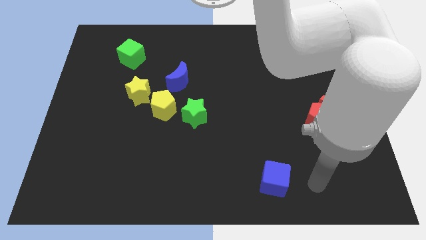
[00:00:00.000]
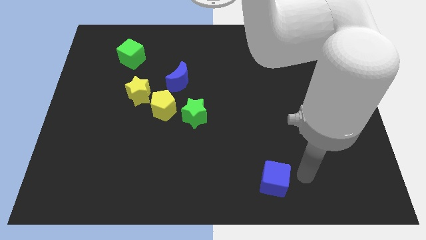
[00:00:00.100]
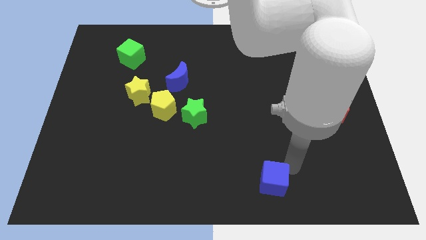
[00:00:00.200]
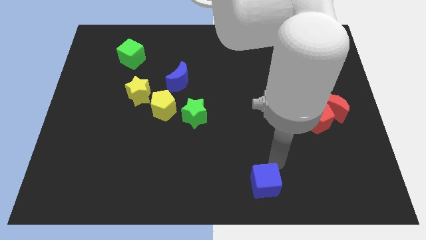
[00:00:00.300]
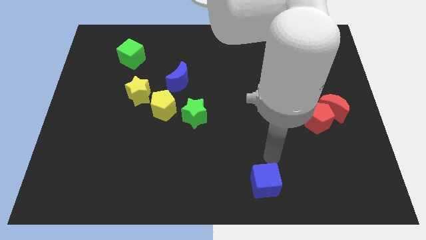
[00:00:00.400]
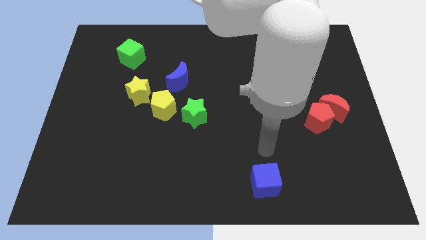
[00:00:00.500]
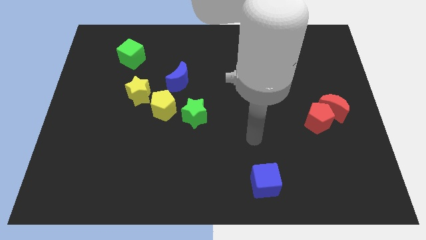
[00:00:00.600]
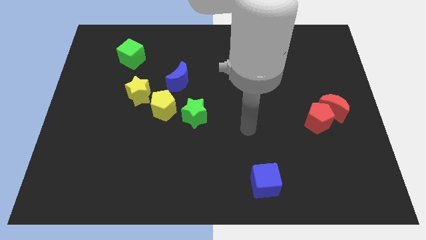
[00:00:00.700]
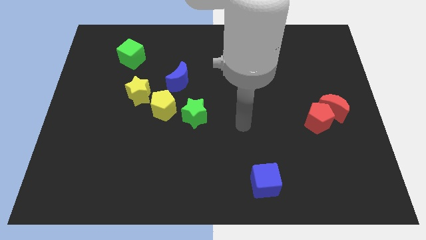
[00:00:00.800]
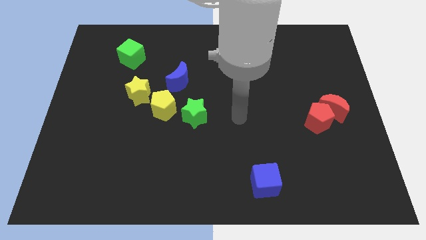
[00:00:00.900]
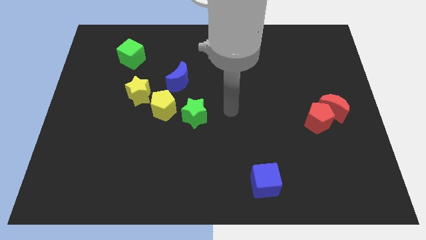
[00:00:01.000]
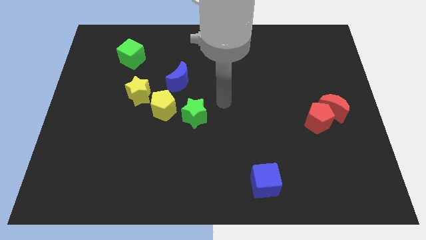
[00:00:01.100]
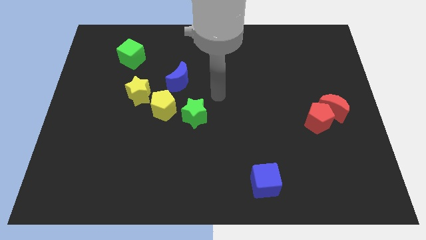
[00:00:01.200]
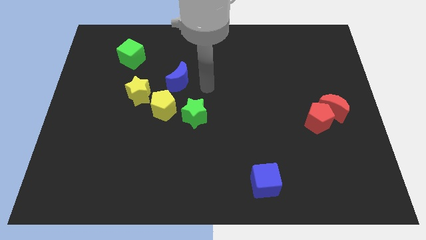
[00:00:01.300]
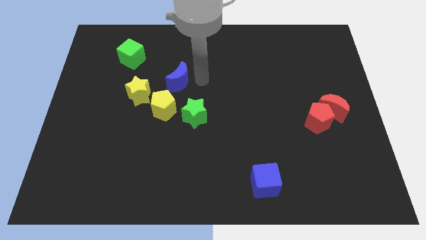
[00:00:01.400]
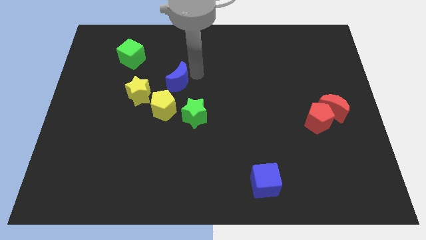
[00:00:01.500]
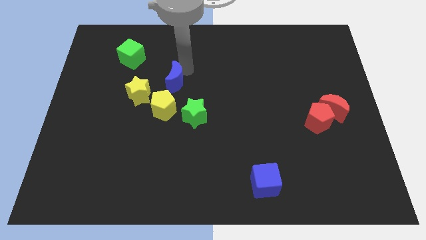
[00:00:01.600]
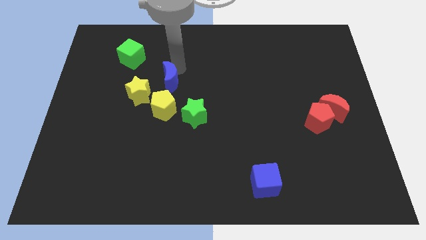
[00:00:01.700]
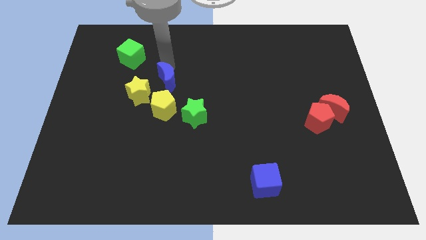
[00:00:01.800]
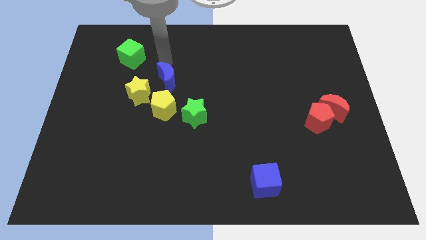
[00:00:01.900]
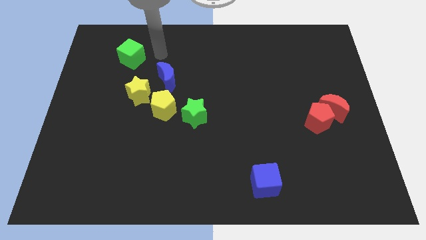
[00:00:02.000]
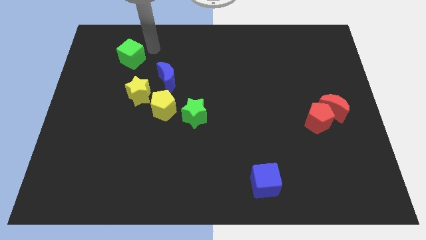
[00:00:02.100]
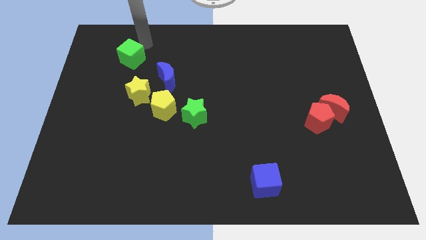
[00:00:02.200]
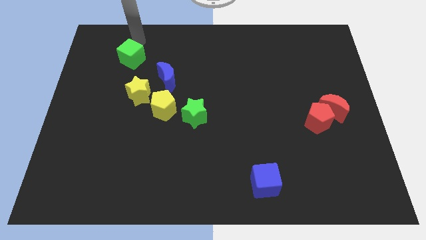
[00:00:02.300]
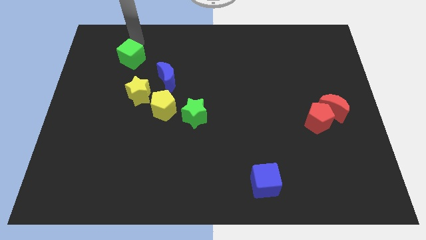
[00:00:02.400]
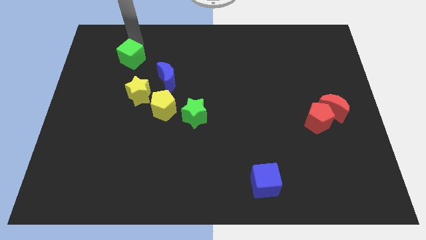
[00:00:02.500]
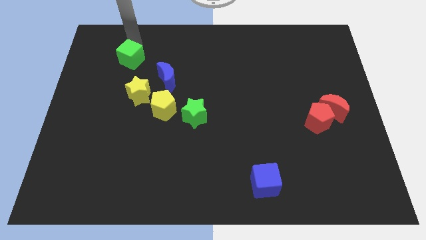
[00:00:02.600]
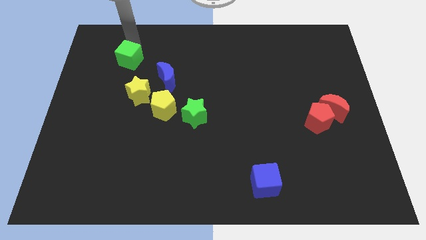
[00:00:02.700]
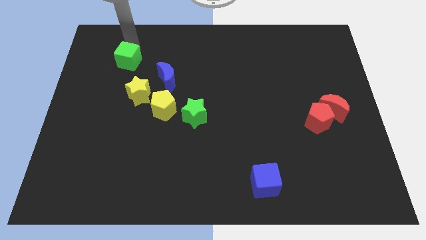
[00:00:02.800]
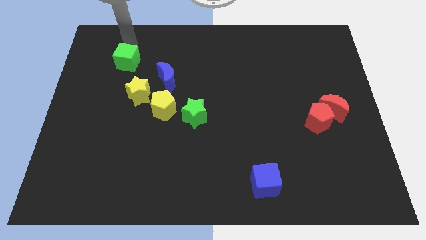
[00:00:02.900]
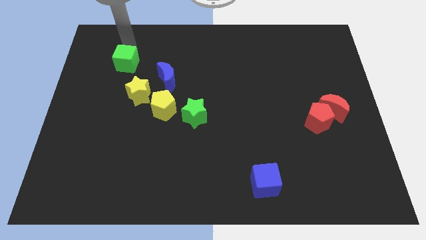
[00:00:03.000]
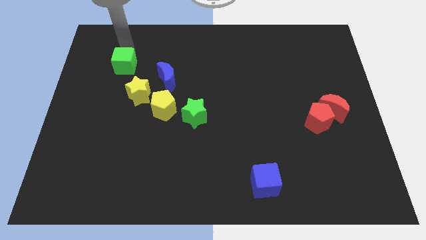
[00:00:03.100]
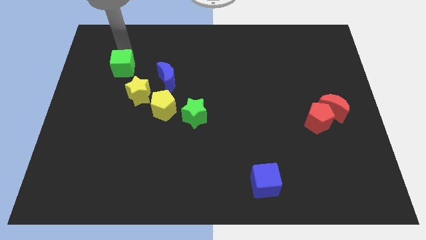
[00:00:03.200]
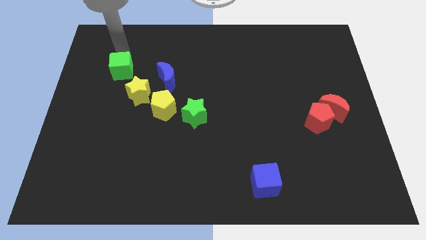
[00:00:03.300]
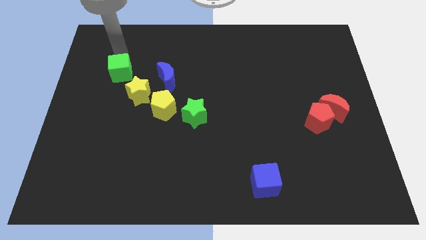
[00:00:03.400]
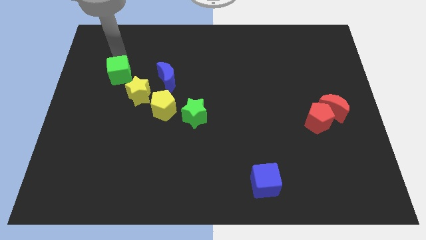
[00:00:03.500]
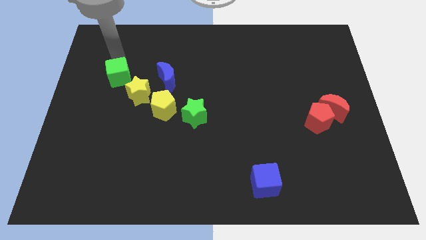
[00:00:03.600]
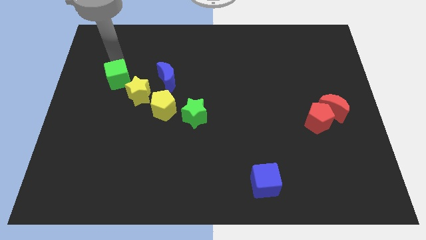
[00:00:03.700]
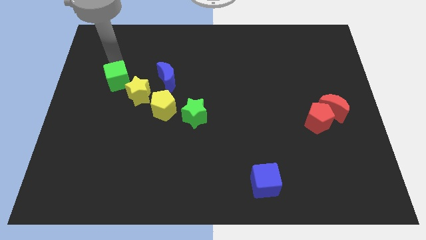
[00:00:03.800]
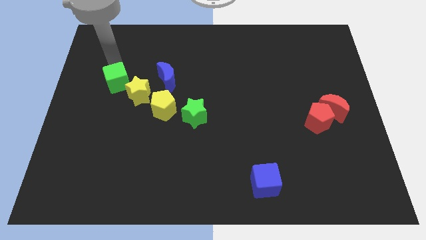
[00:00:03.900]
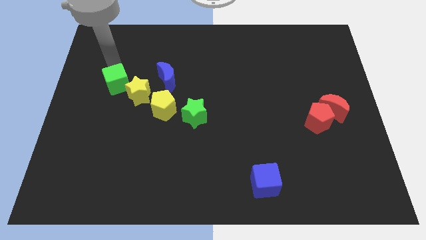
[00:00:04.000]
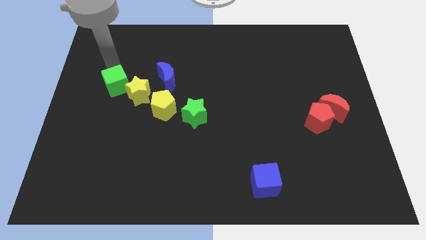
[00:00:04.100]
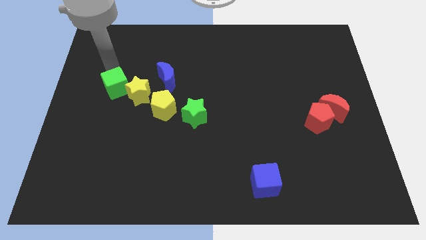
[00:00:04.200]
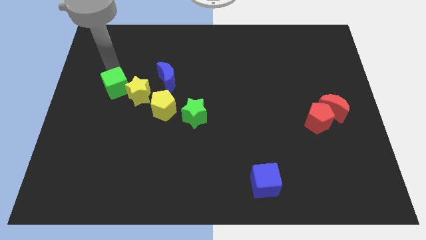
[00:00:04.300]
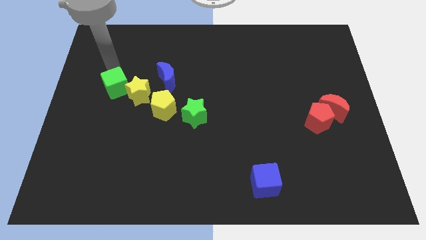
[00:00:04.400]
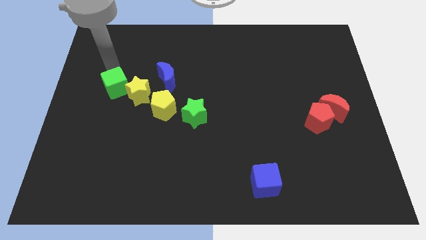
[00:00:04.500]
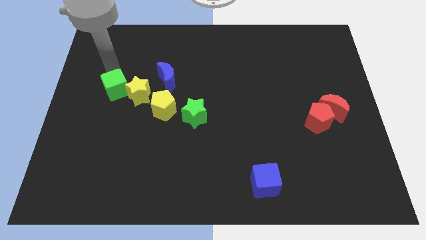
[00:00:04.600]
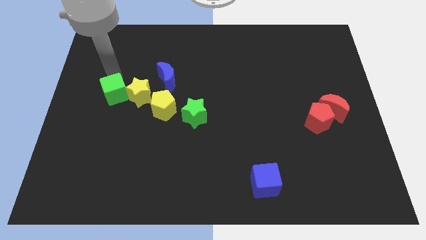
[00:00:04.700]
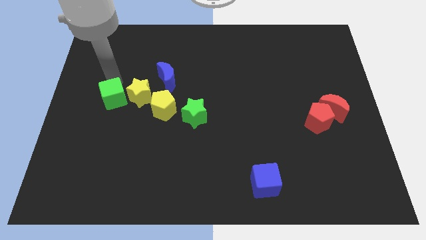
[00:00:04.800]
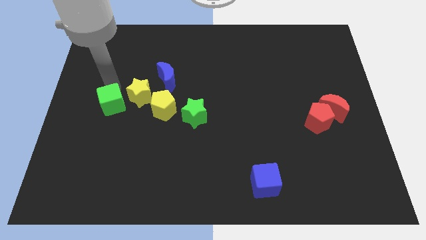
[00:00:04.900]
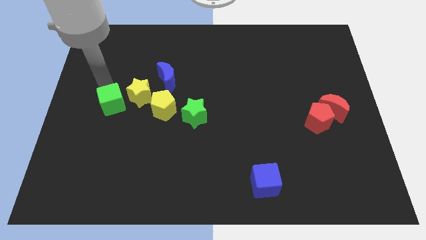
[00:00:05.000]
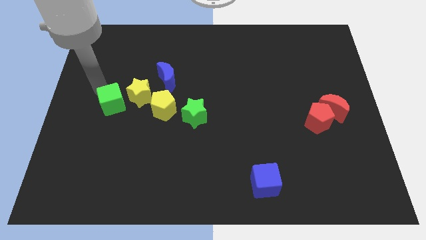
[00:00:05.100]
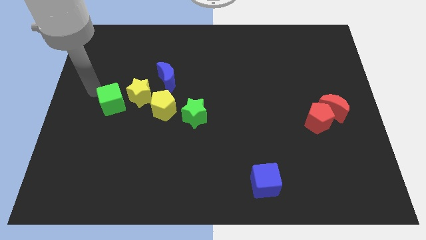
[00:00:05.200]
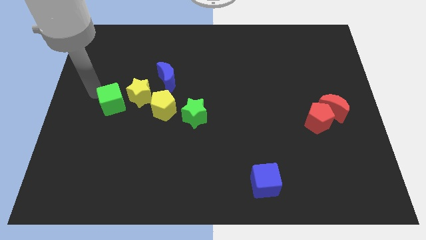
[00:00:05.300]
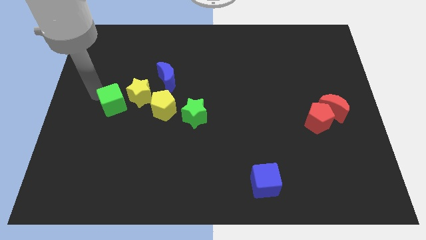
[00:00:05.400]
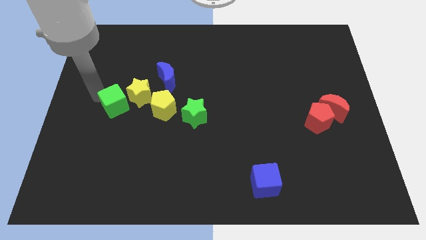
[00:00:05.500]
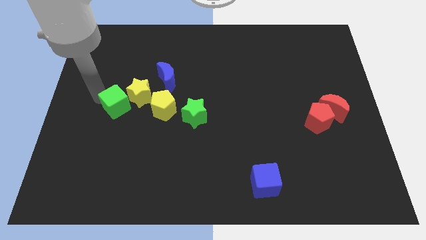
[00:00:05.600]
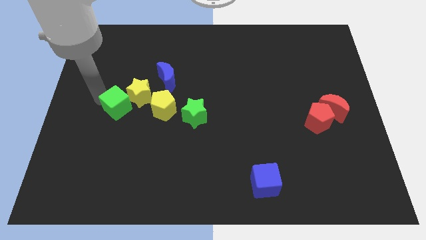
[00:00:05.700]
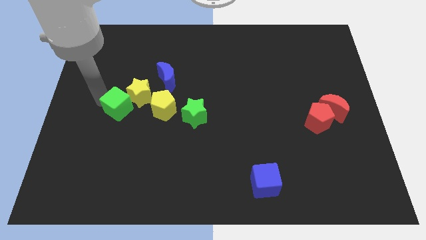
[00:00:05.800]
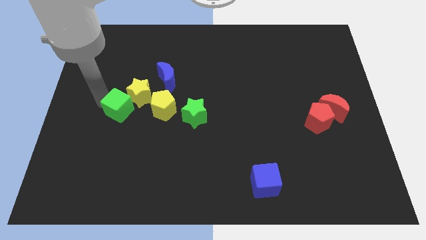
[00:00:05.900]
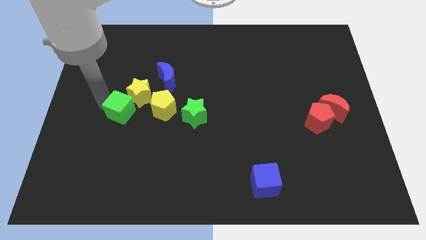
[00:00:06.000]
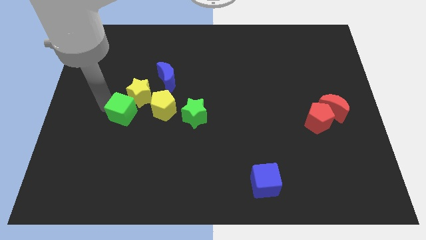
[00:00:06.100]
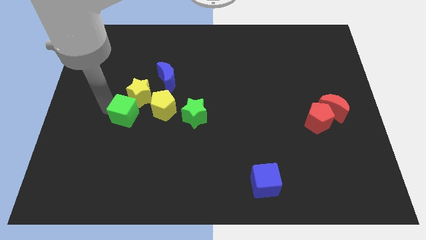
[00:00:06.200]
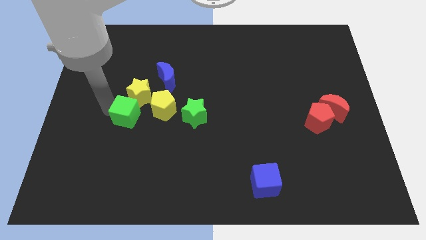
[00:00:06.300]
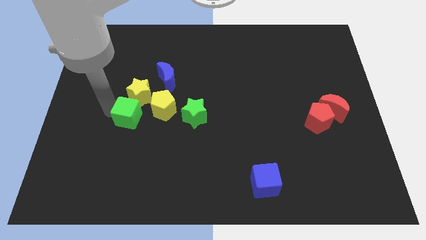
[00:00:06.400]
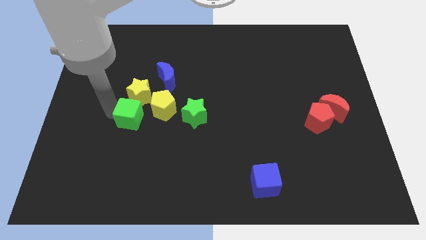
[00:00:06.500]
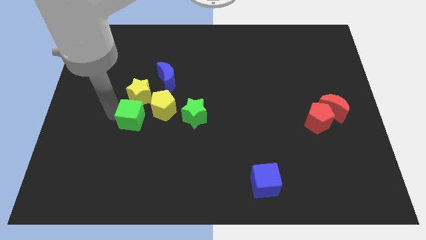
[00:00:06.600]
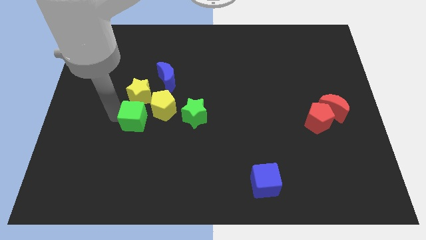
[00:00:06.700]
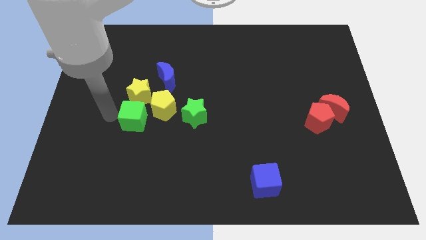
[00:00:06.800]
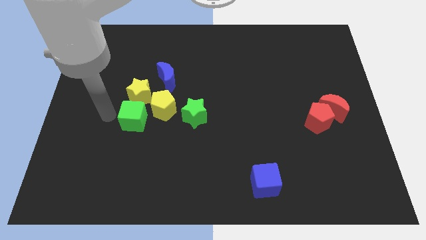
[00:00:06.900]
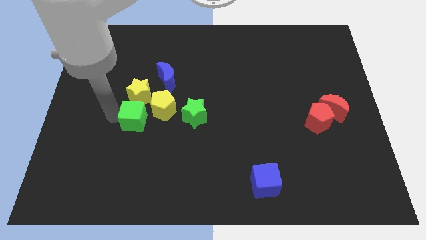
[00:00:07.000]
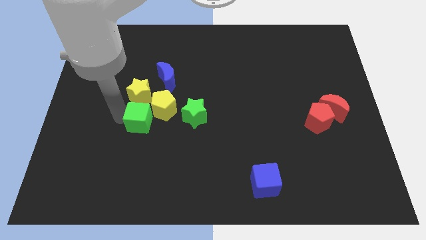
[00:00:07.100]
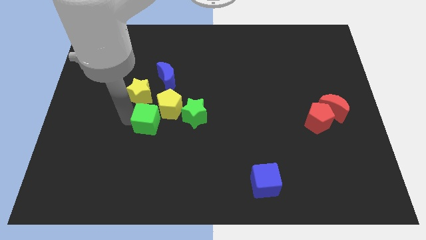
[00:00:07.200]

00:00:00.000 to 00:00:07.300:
slide the green cube below the blue moon

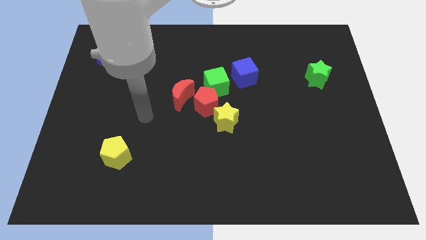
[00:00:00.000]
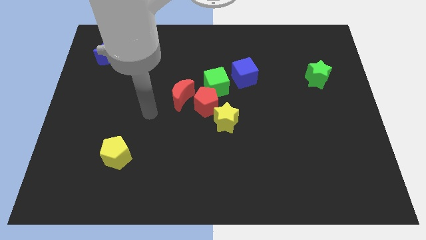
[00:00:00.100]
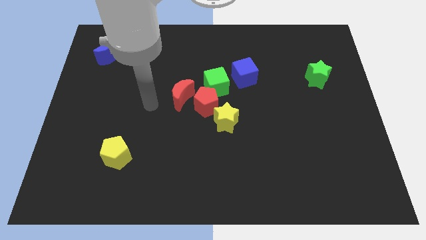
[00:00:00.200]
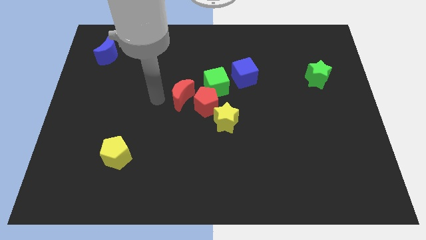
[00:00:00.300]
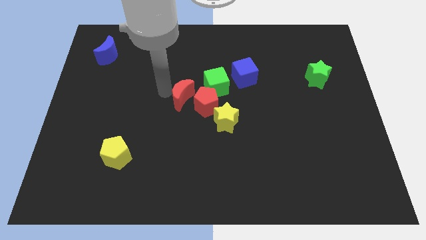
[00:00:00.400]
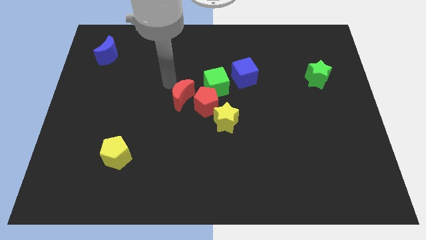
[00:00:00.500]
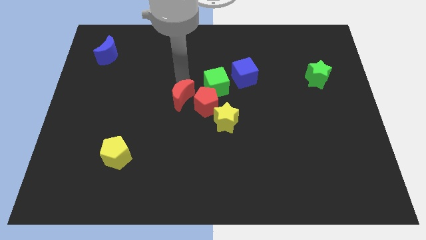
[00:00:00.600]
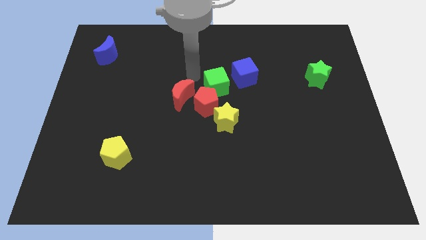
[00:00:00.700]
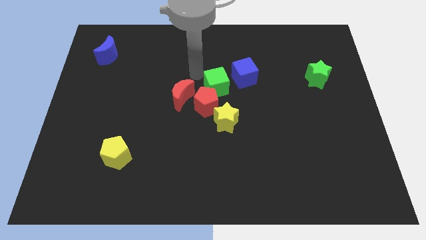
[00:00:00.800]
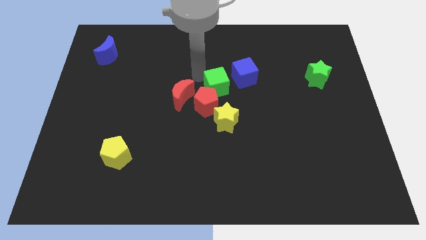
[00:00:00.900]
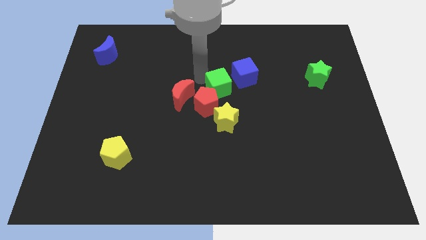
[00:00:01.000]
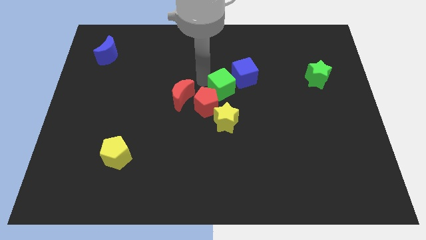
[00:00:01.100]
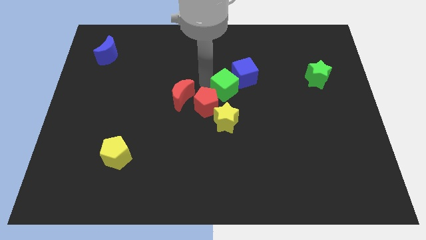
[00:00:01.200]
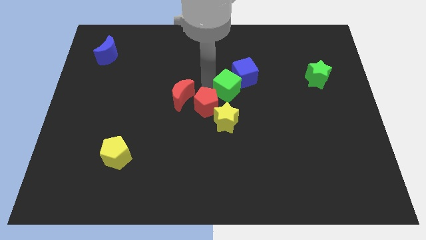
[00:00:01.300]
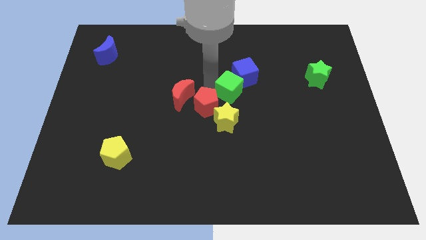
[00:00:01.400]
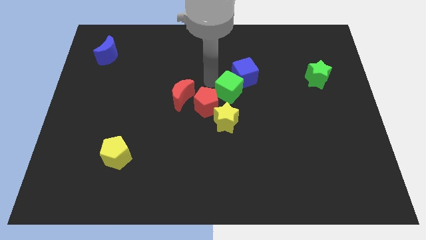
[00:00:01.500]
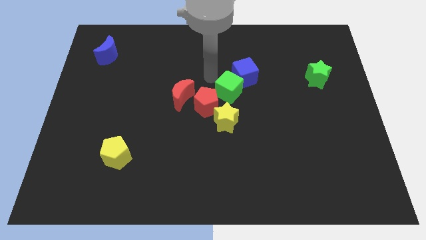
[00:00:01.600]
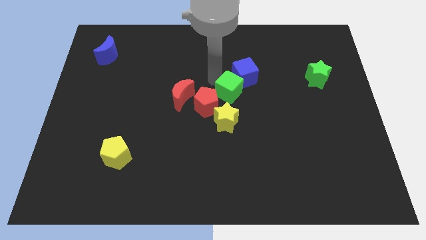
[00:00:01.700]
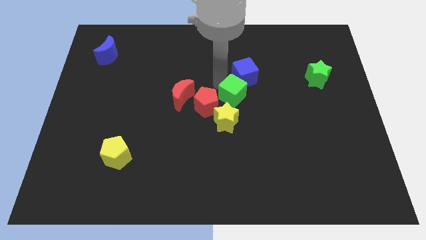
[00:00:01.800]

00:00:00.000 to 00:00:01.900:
move the green cube to the top right side of the yellow star
